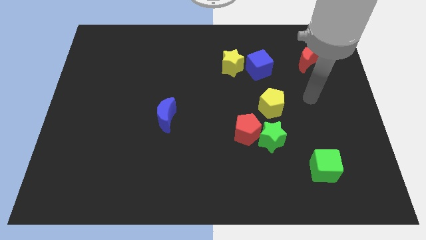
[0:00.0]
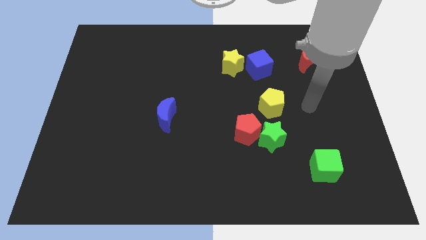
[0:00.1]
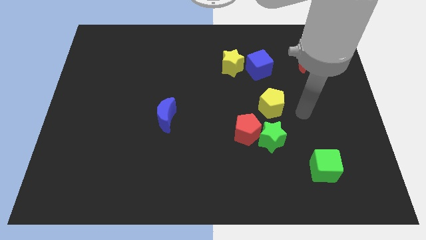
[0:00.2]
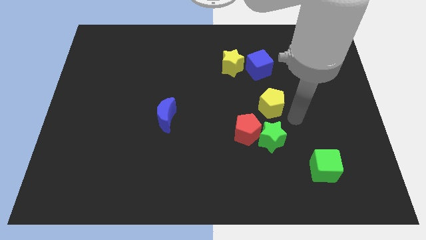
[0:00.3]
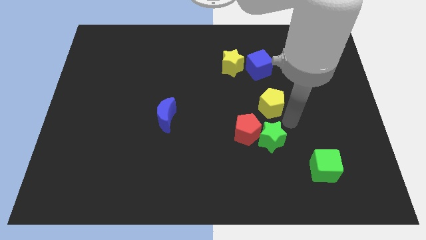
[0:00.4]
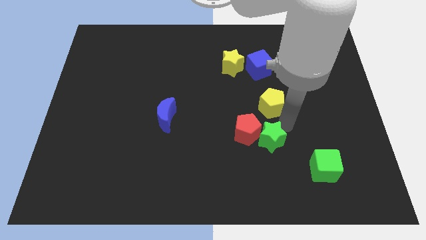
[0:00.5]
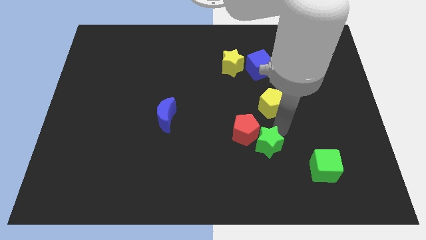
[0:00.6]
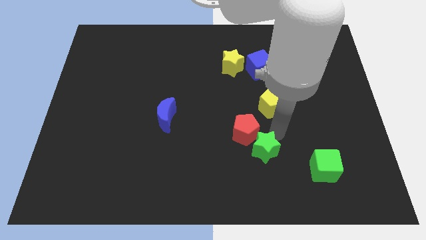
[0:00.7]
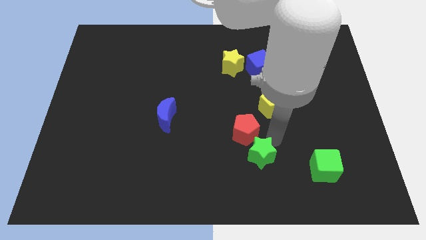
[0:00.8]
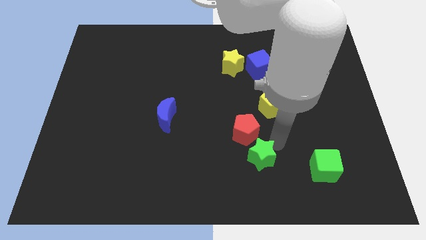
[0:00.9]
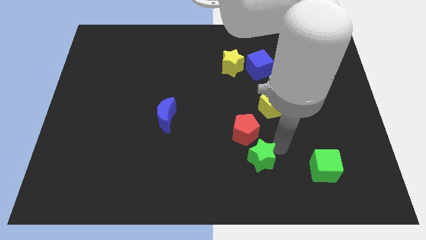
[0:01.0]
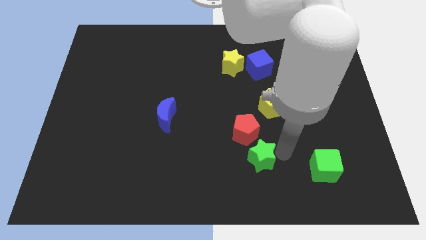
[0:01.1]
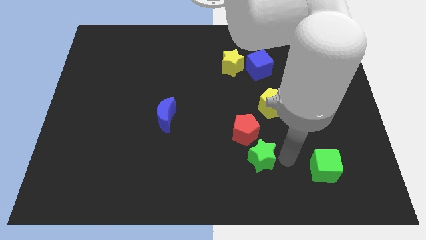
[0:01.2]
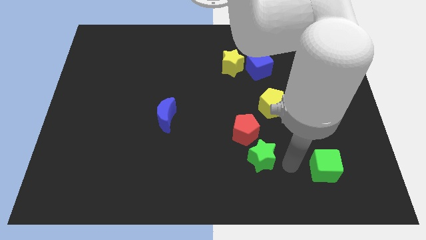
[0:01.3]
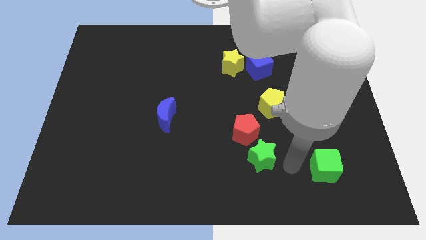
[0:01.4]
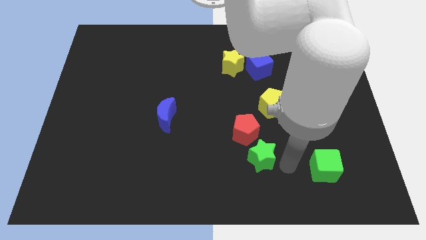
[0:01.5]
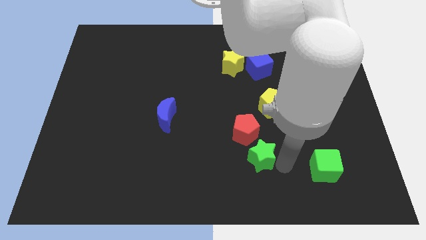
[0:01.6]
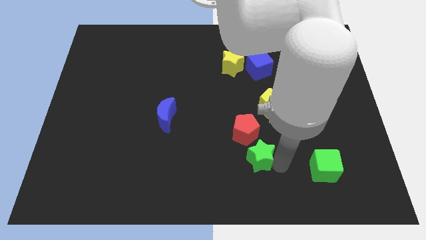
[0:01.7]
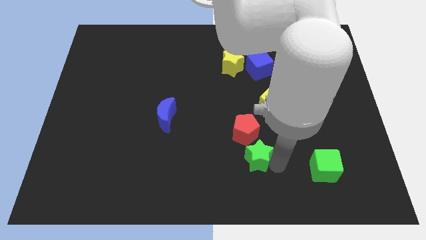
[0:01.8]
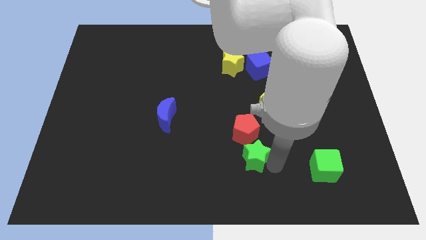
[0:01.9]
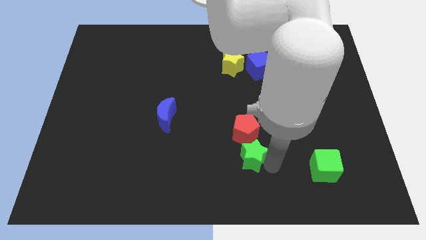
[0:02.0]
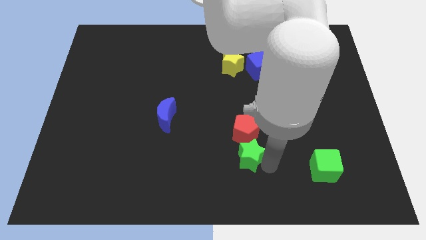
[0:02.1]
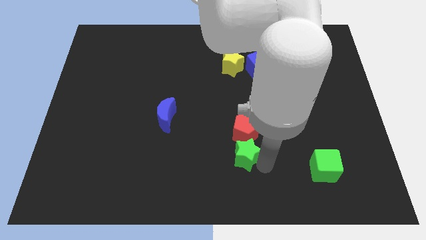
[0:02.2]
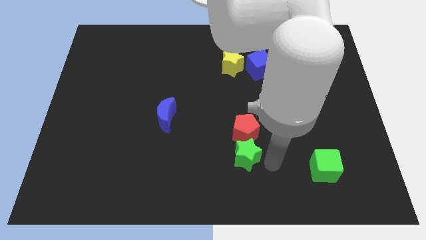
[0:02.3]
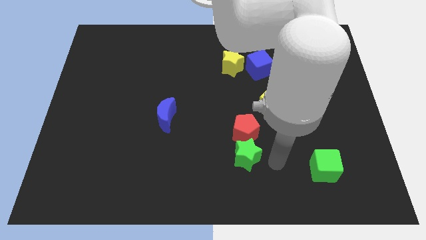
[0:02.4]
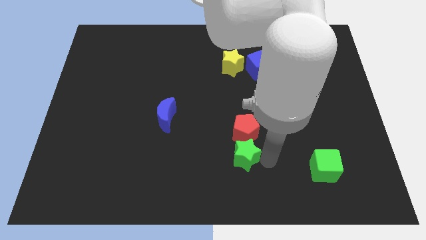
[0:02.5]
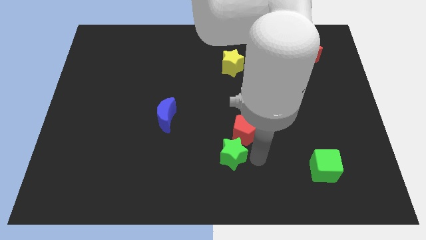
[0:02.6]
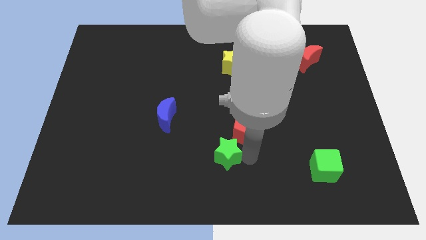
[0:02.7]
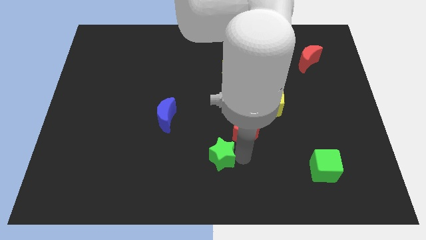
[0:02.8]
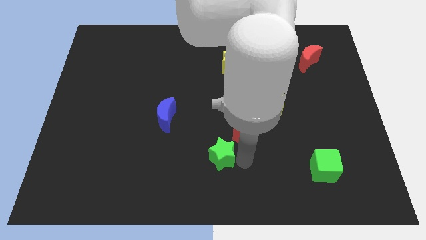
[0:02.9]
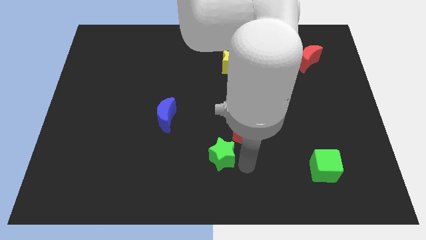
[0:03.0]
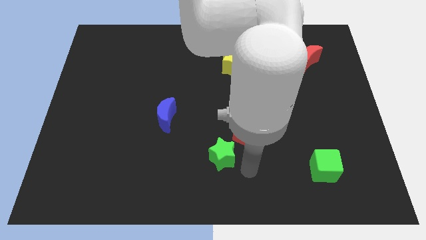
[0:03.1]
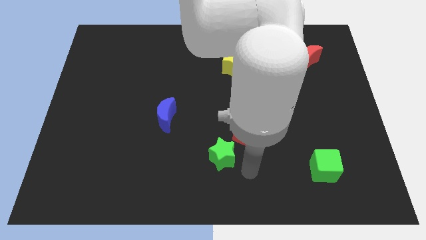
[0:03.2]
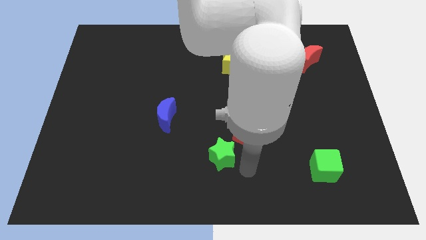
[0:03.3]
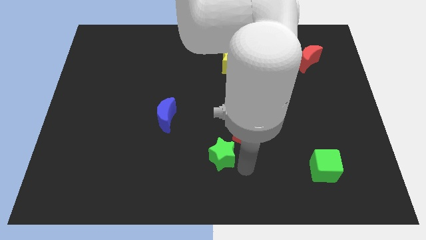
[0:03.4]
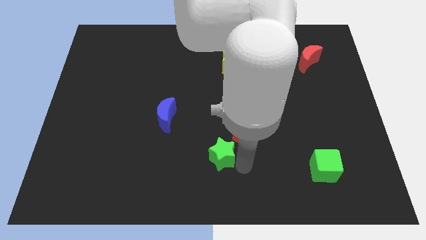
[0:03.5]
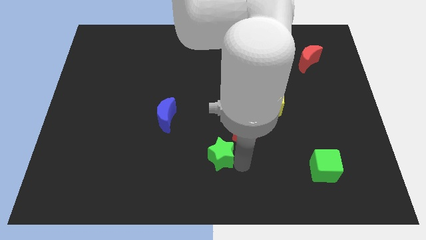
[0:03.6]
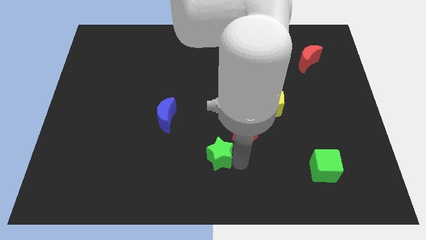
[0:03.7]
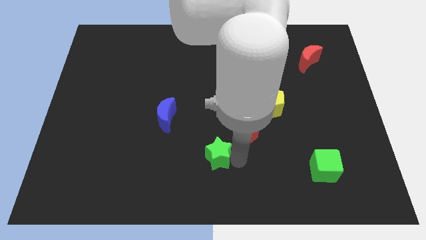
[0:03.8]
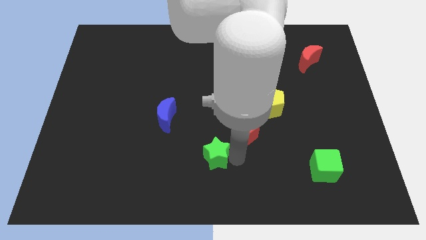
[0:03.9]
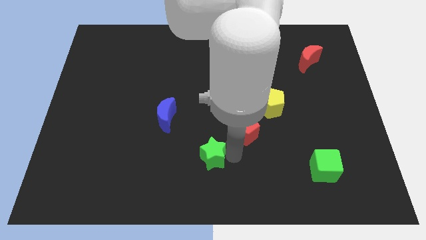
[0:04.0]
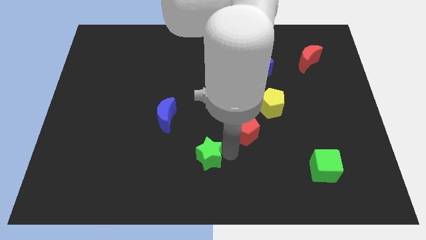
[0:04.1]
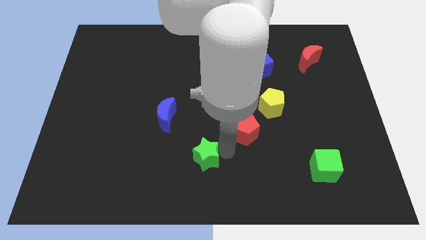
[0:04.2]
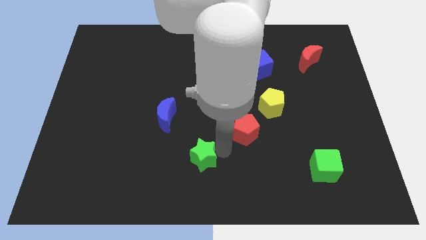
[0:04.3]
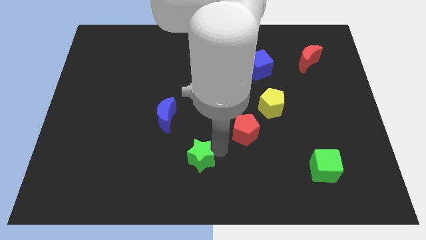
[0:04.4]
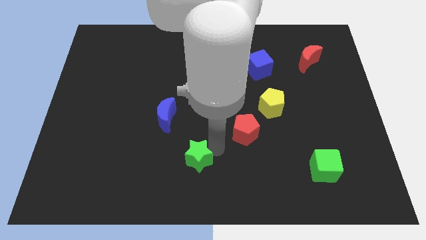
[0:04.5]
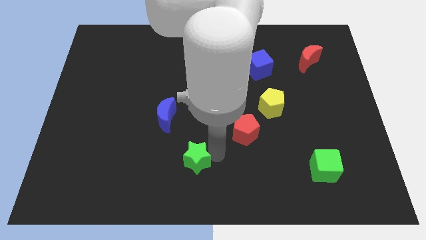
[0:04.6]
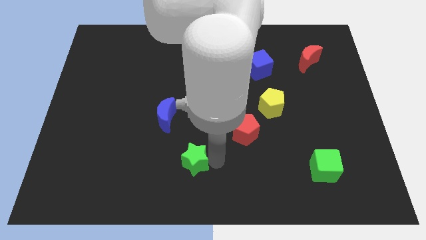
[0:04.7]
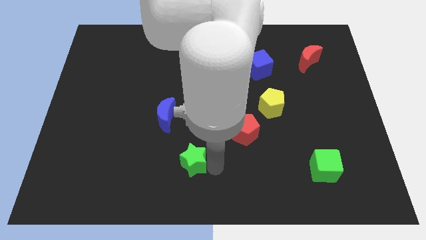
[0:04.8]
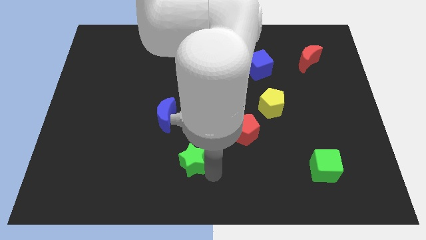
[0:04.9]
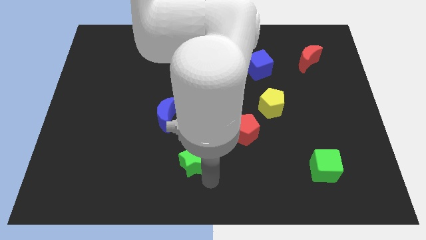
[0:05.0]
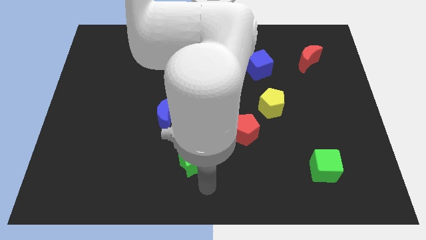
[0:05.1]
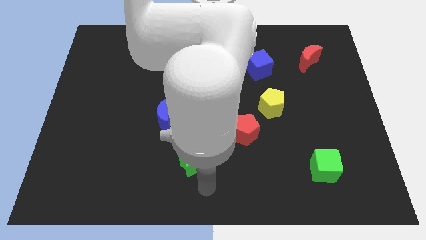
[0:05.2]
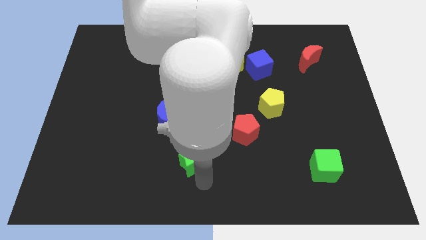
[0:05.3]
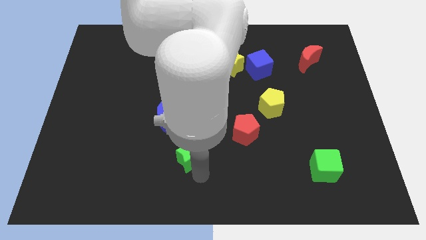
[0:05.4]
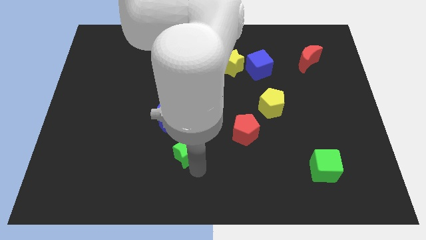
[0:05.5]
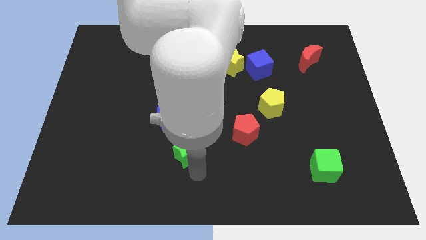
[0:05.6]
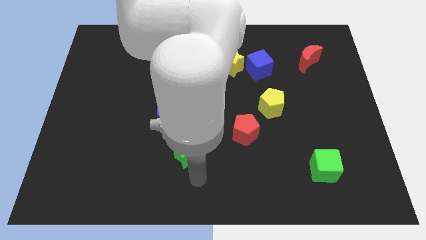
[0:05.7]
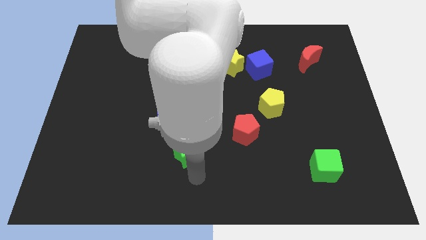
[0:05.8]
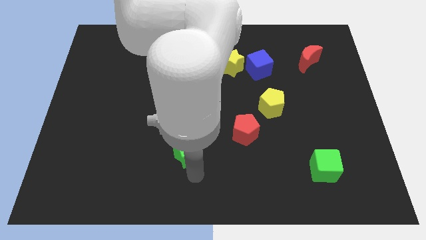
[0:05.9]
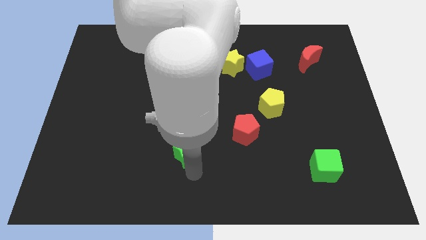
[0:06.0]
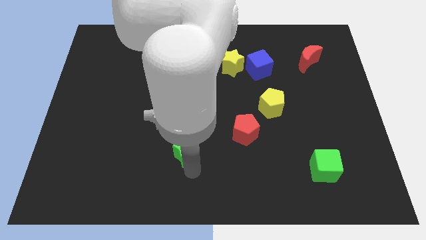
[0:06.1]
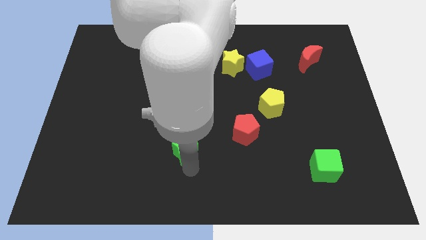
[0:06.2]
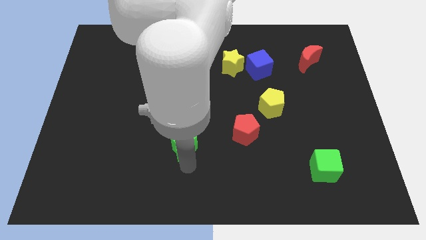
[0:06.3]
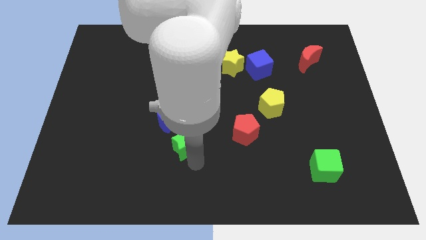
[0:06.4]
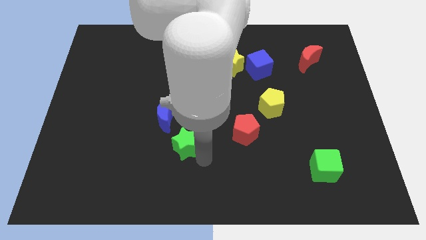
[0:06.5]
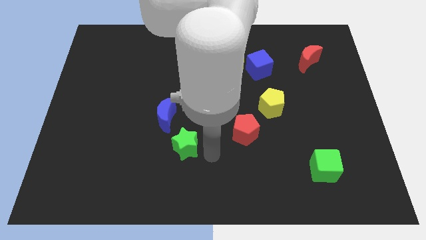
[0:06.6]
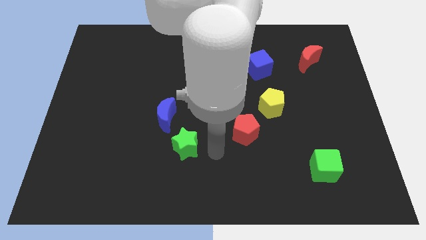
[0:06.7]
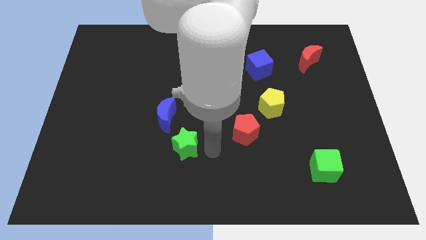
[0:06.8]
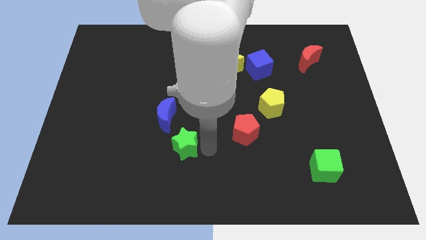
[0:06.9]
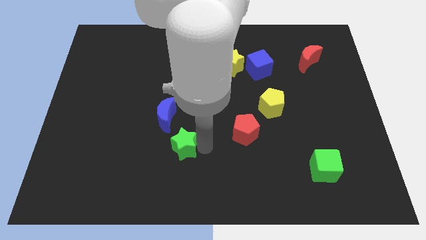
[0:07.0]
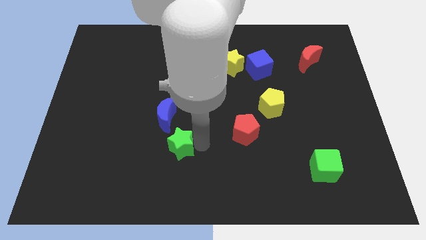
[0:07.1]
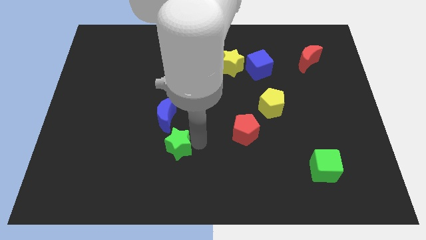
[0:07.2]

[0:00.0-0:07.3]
move the green star left

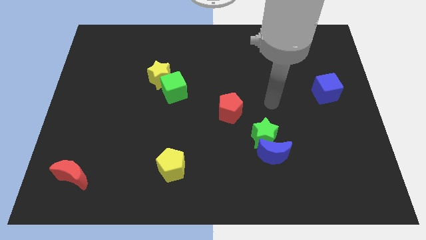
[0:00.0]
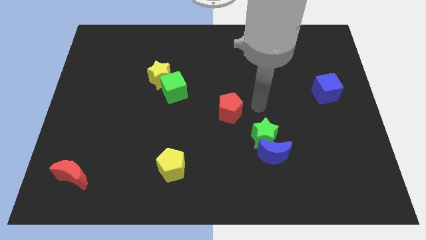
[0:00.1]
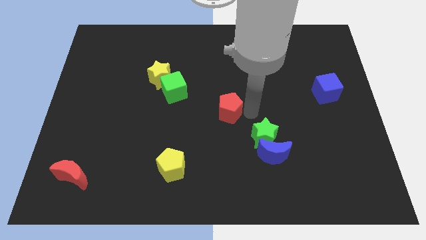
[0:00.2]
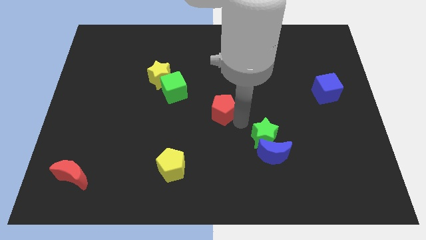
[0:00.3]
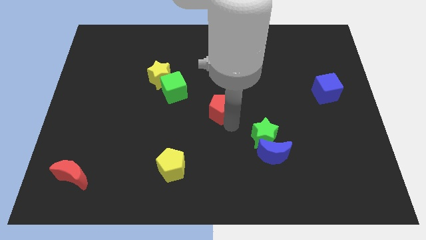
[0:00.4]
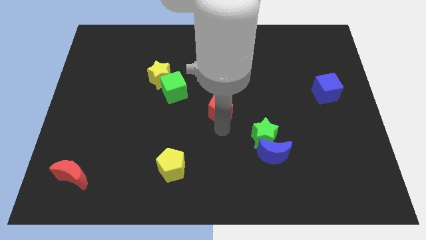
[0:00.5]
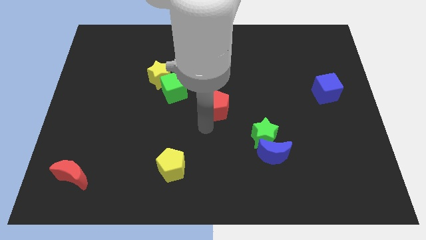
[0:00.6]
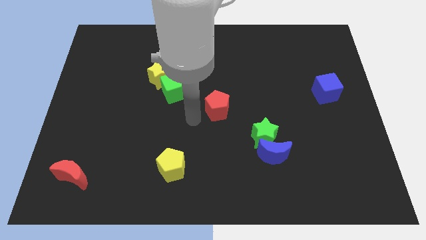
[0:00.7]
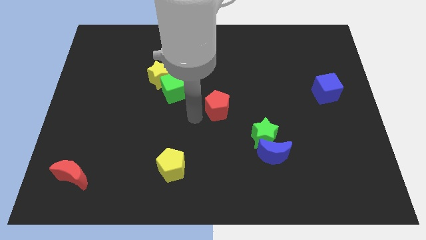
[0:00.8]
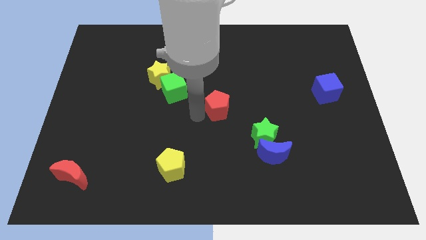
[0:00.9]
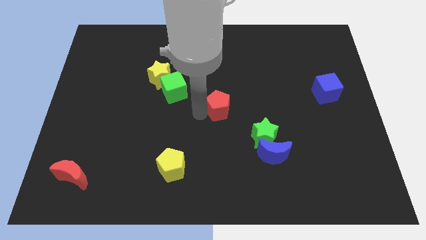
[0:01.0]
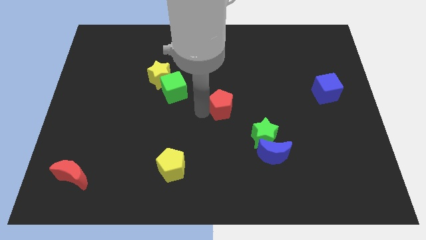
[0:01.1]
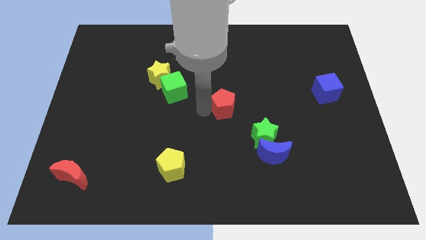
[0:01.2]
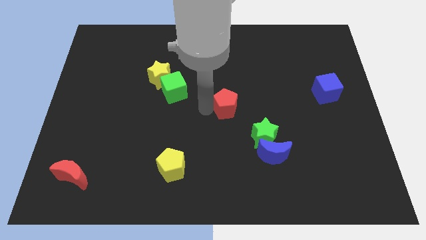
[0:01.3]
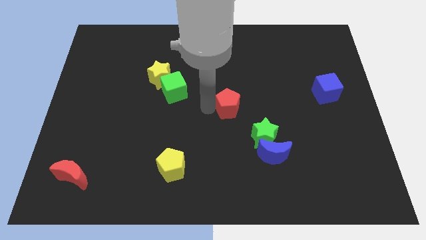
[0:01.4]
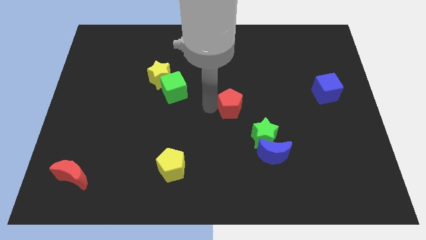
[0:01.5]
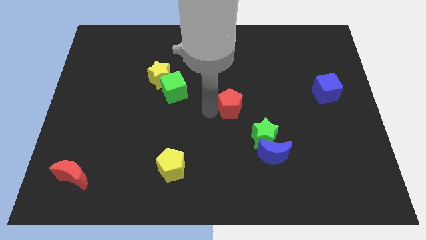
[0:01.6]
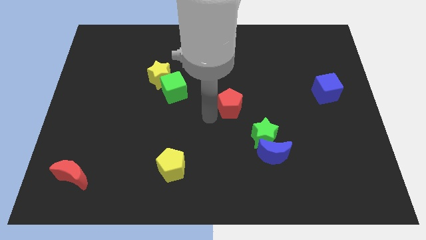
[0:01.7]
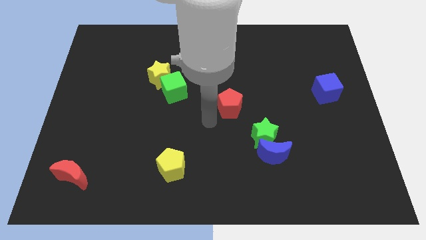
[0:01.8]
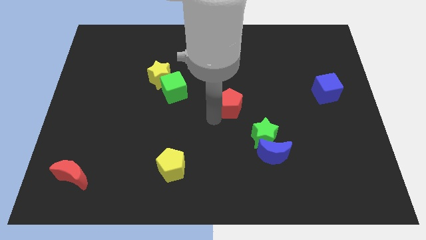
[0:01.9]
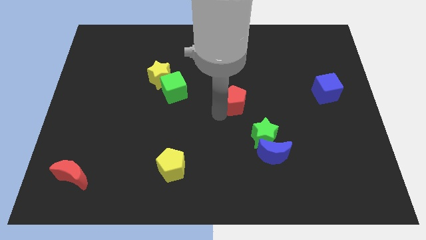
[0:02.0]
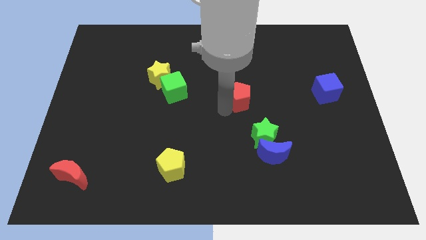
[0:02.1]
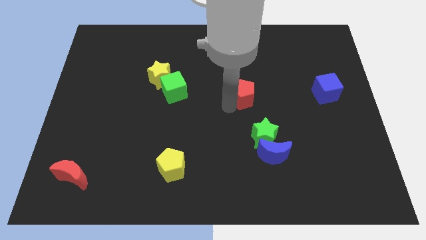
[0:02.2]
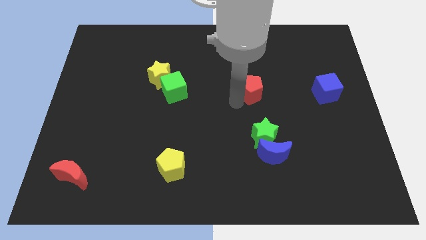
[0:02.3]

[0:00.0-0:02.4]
push the red pentagon up and right diagonally a bit
